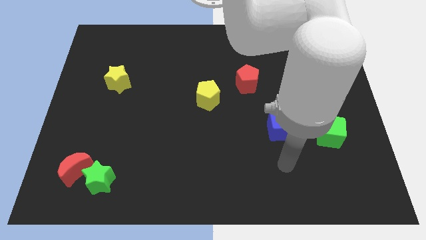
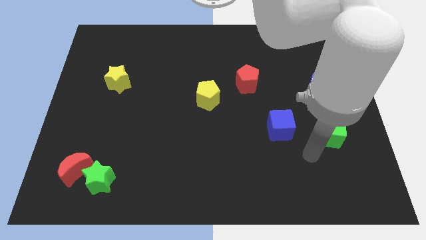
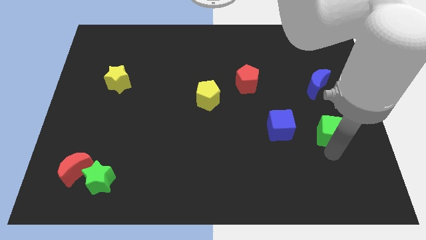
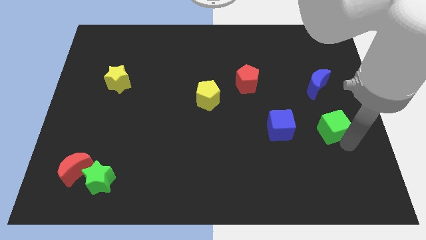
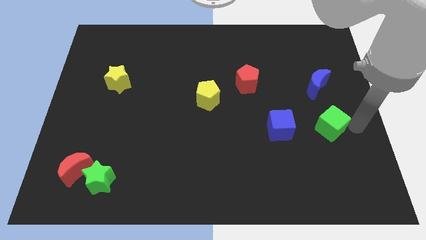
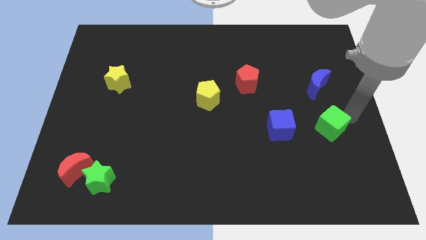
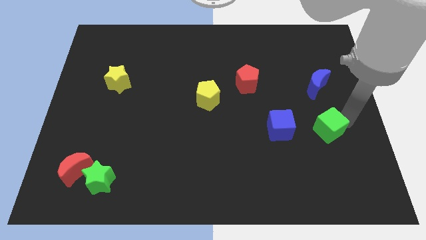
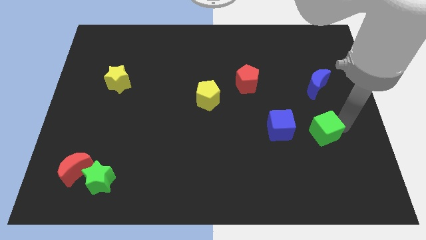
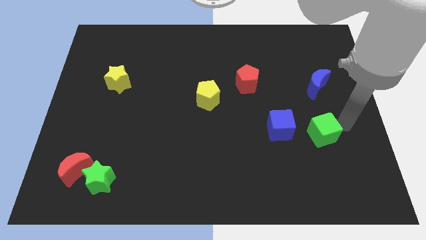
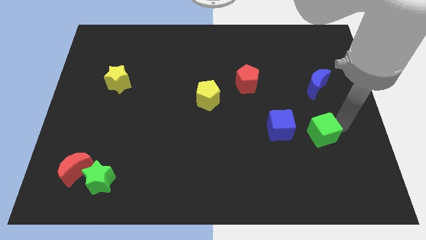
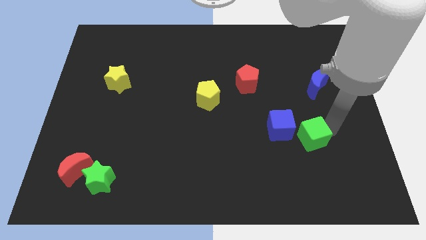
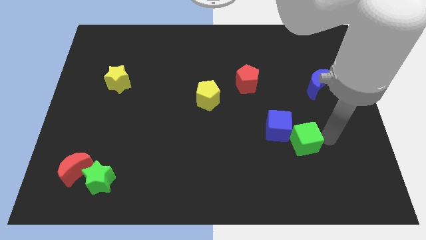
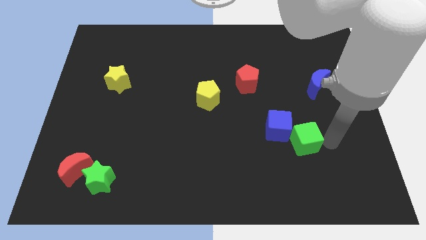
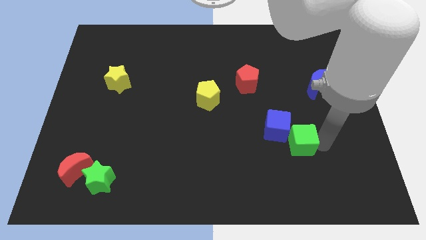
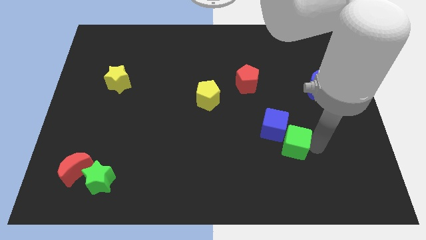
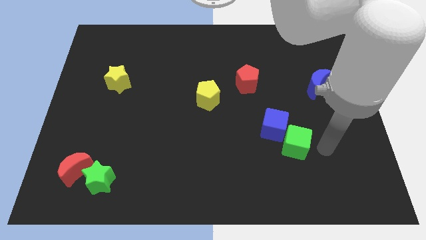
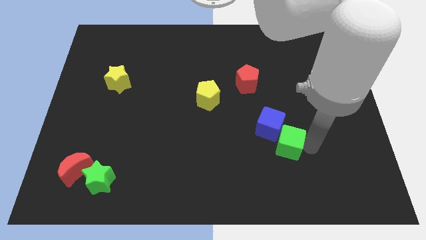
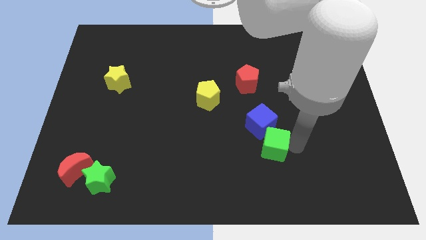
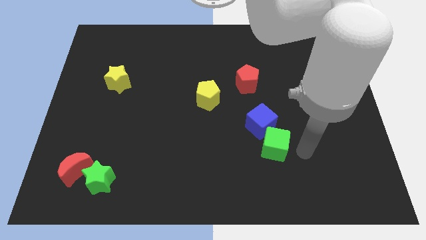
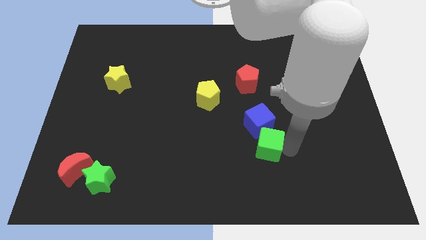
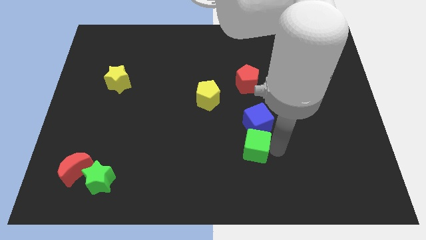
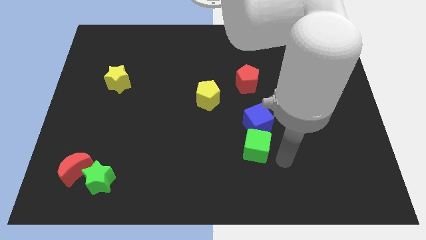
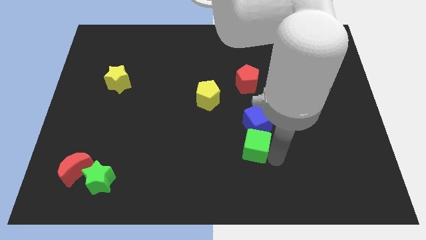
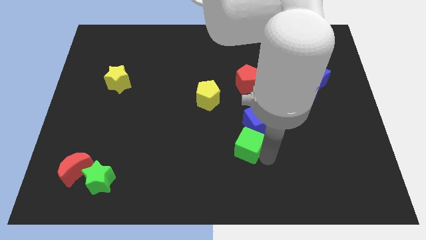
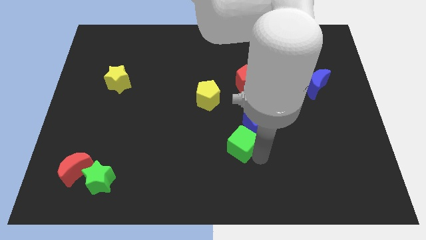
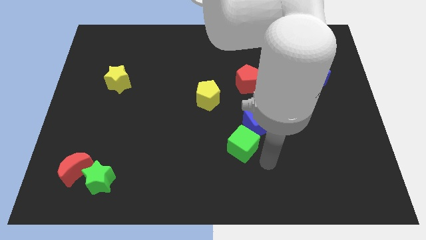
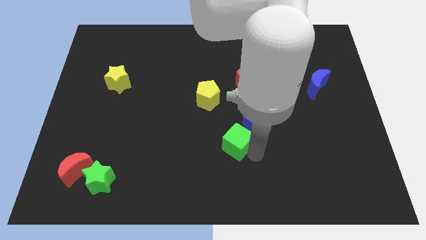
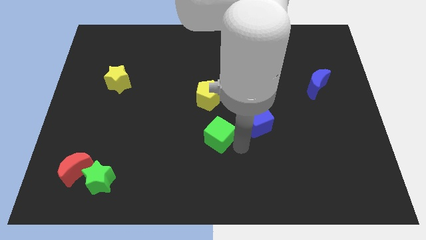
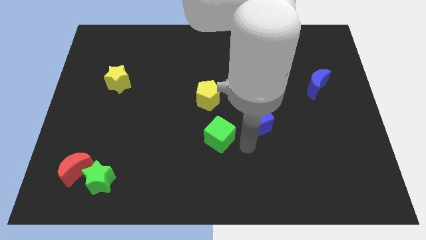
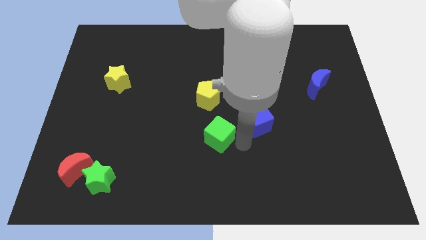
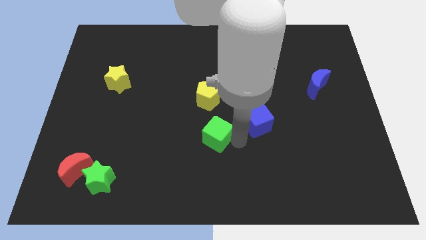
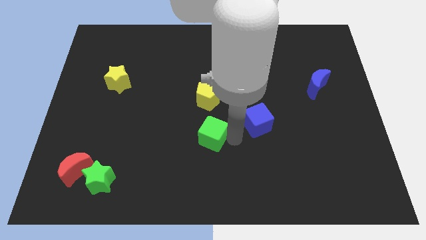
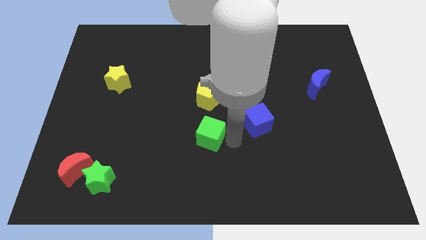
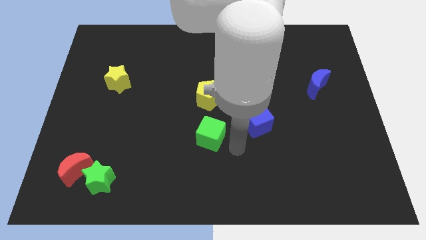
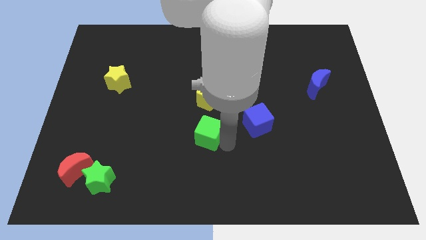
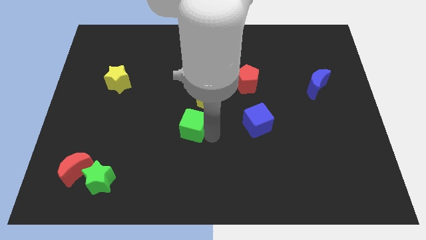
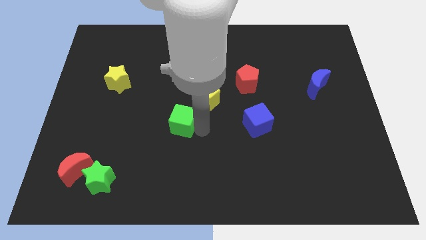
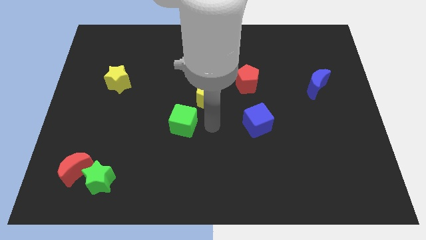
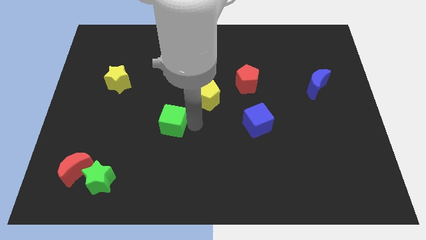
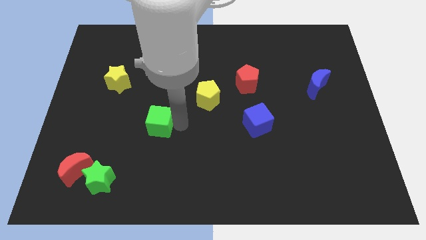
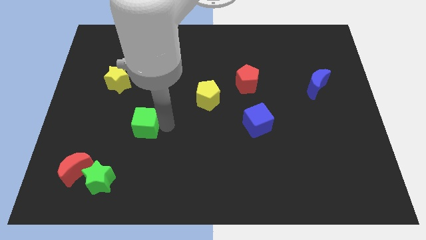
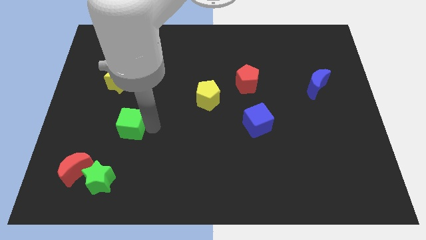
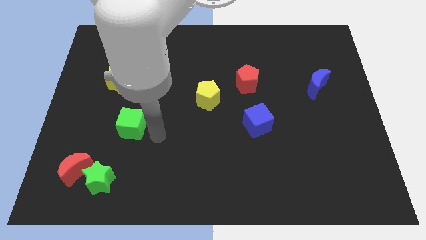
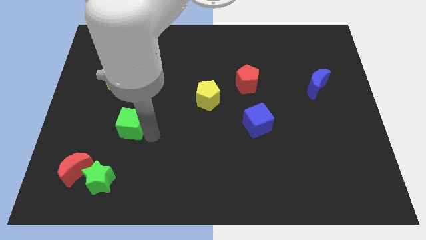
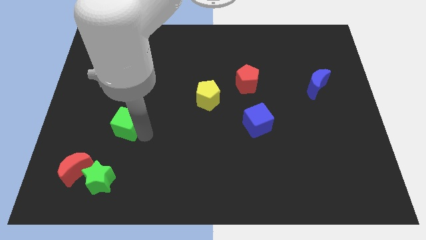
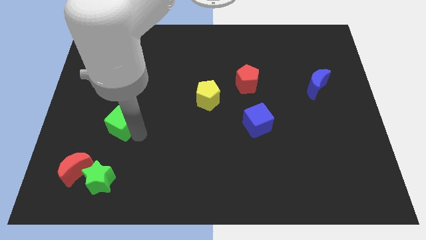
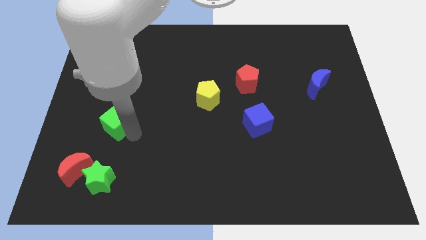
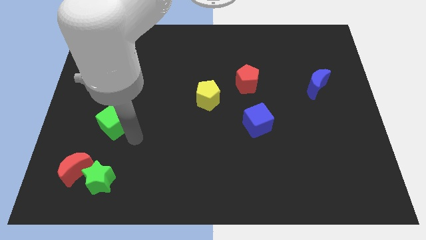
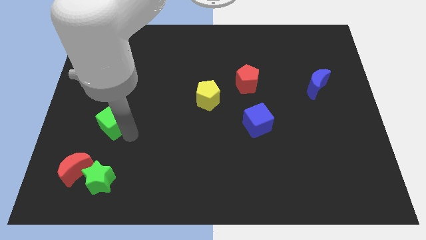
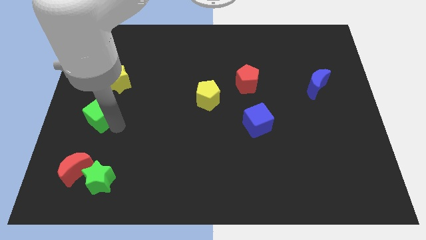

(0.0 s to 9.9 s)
slide the green cube to the left side of the board

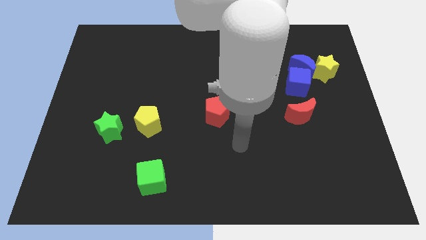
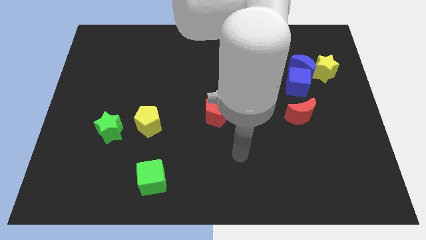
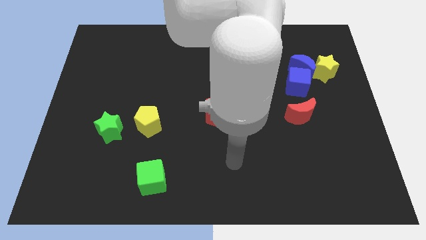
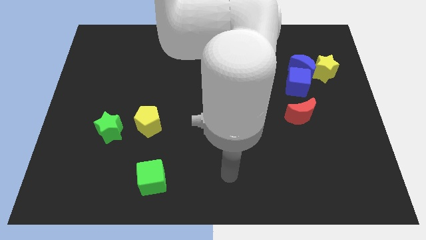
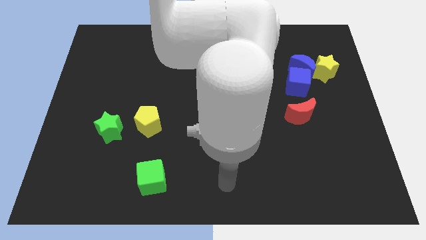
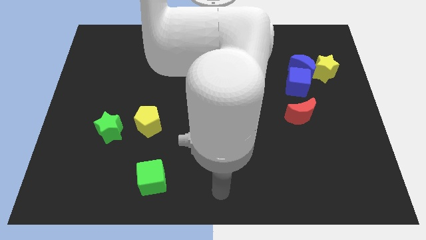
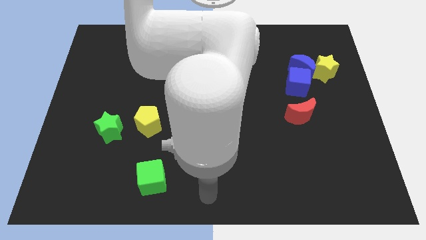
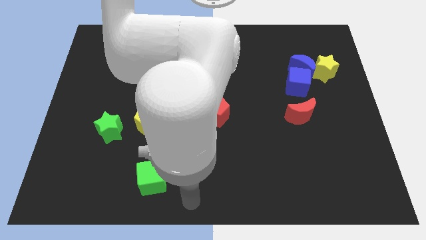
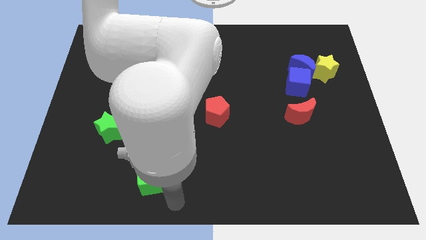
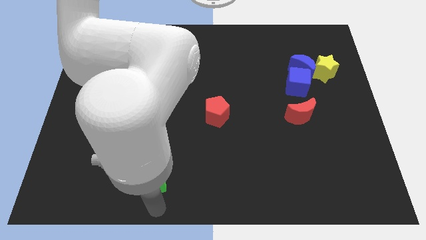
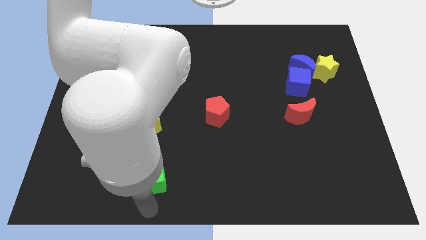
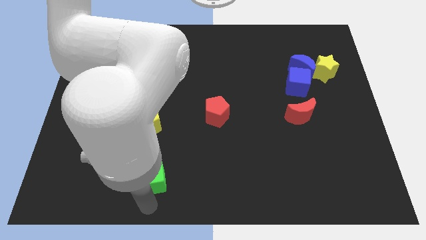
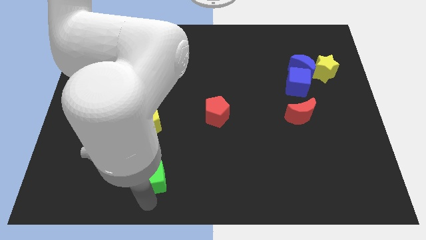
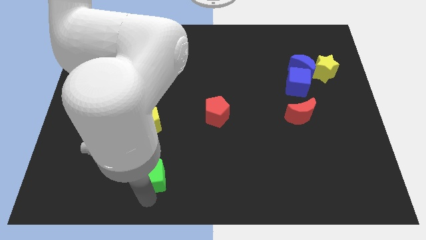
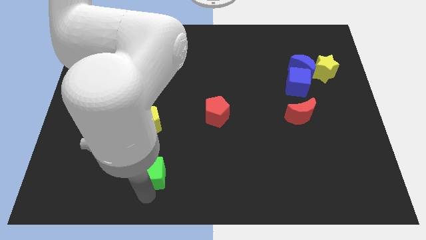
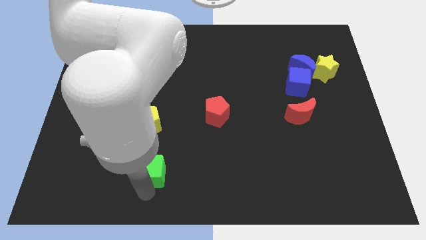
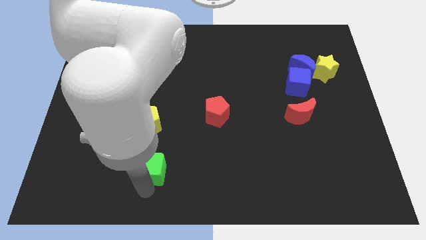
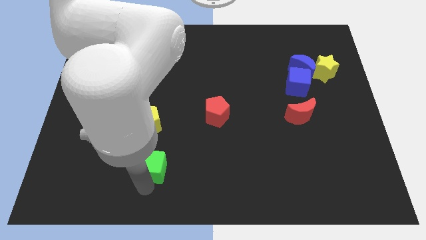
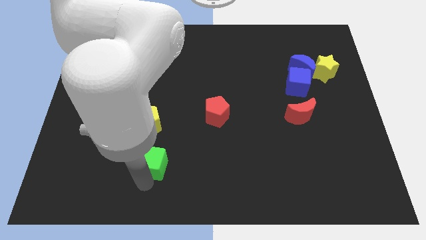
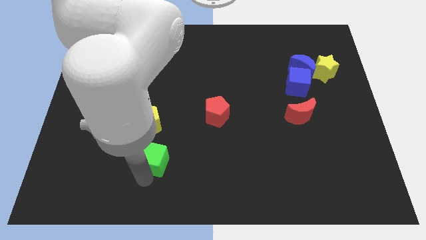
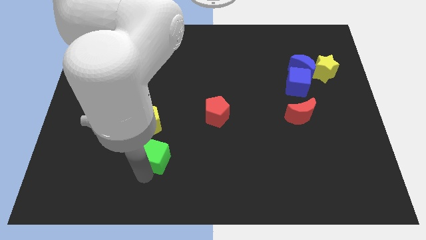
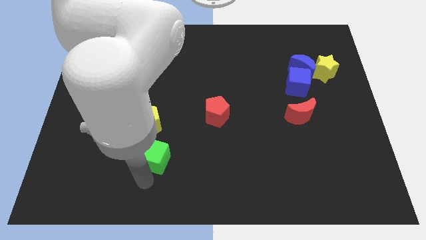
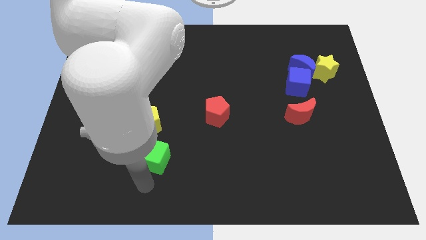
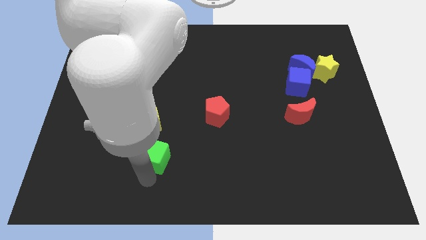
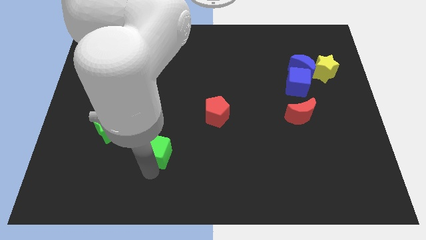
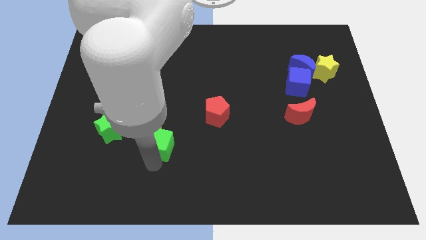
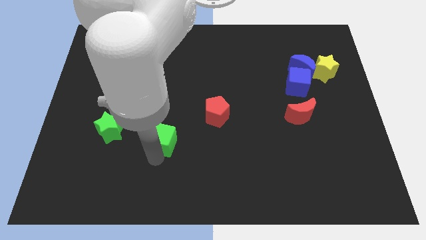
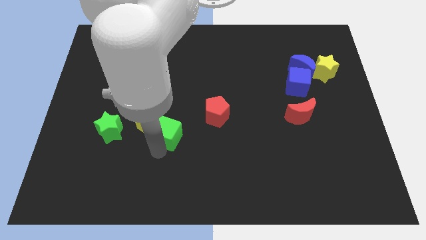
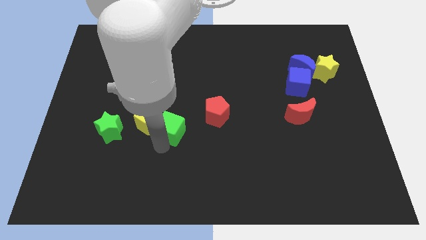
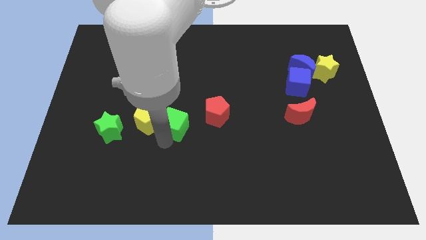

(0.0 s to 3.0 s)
push the green cube to the center of the board
